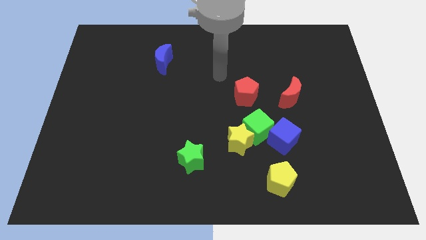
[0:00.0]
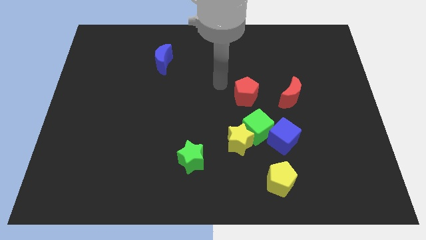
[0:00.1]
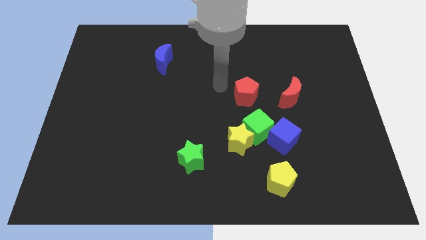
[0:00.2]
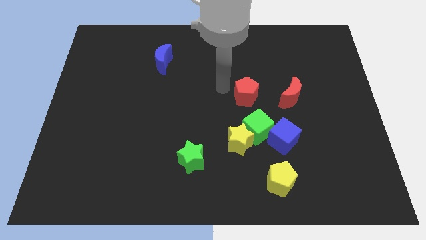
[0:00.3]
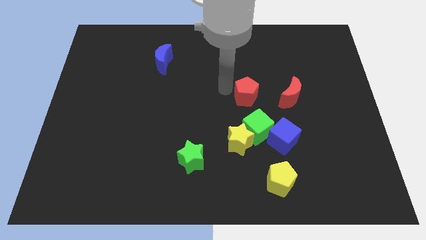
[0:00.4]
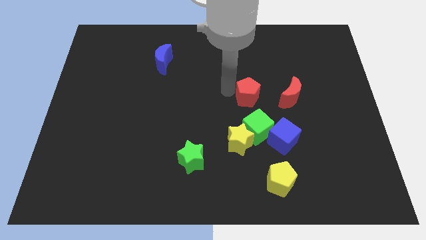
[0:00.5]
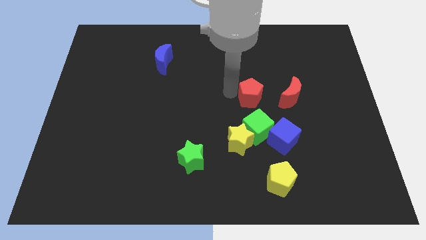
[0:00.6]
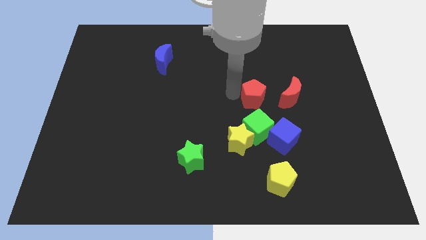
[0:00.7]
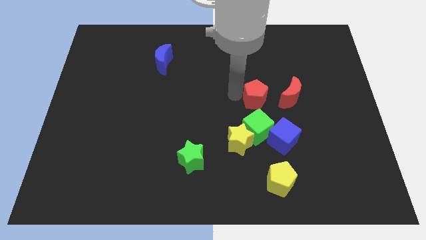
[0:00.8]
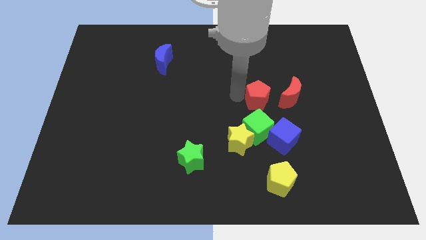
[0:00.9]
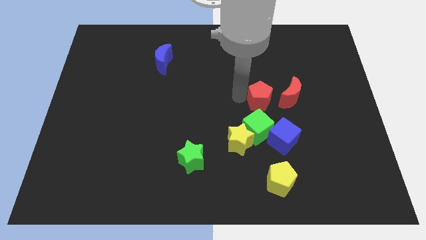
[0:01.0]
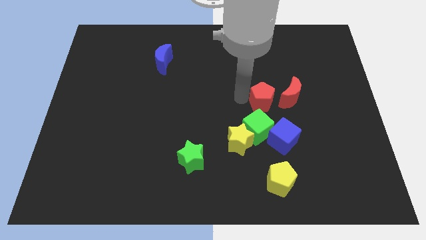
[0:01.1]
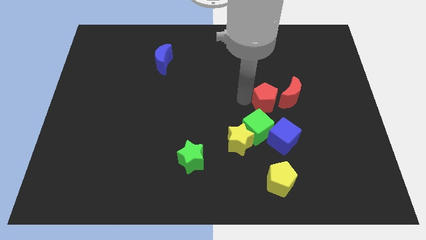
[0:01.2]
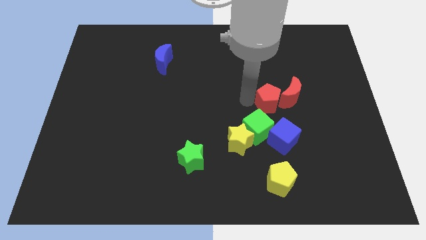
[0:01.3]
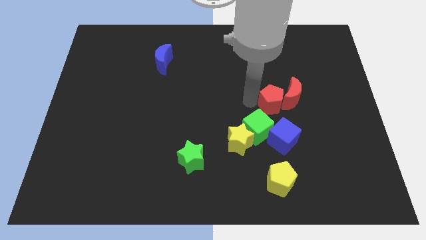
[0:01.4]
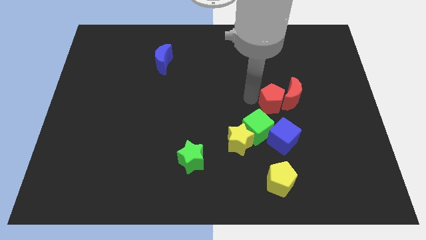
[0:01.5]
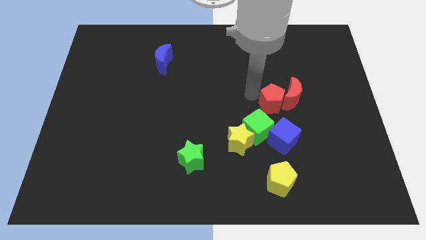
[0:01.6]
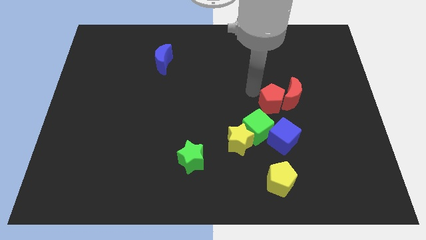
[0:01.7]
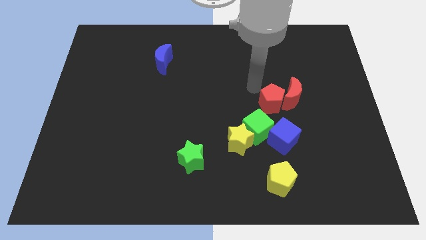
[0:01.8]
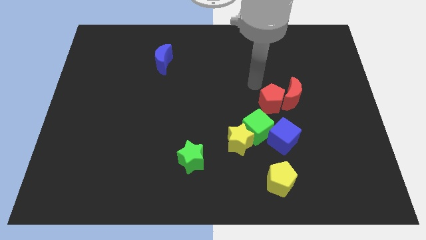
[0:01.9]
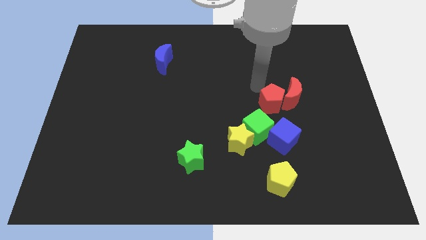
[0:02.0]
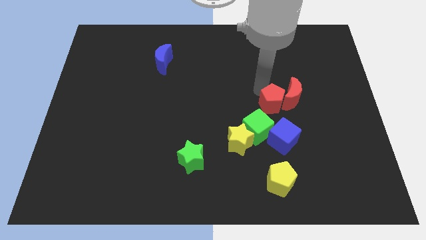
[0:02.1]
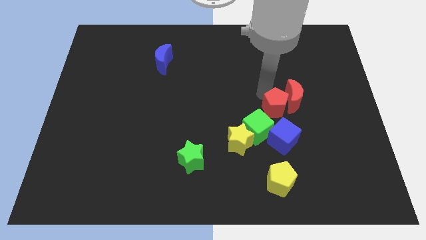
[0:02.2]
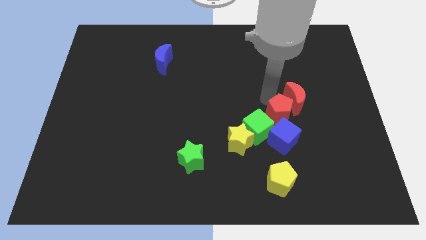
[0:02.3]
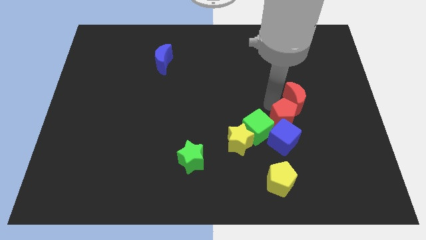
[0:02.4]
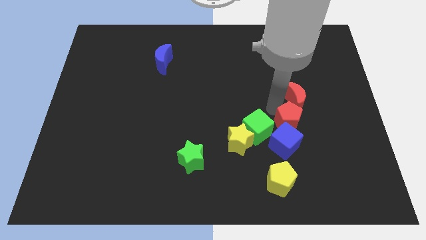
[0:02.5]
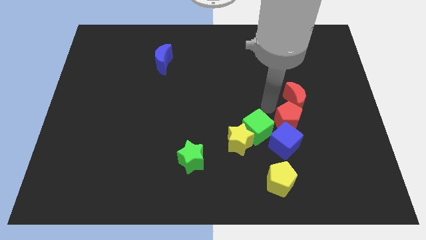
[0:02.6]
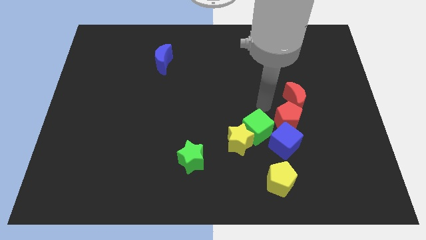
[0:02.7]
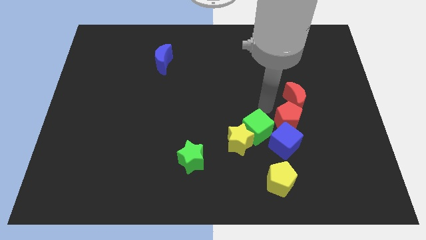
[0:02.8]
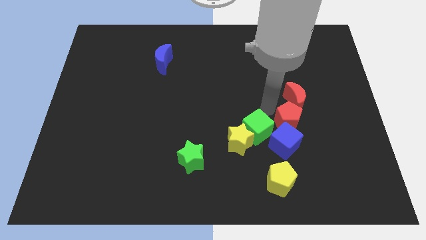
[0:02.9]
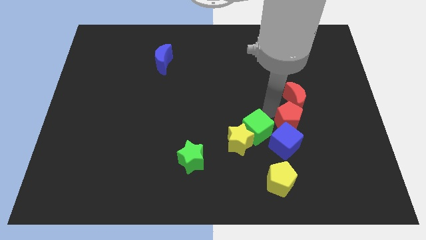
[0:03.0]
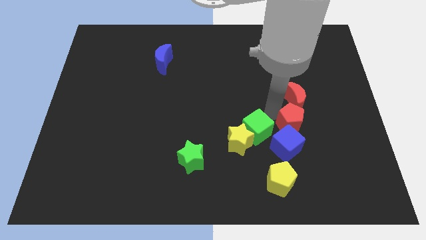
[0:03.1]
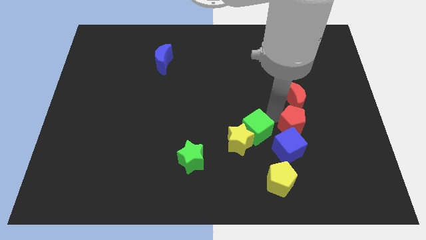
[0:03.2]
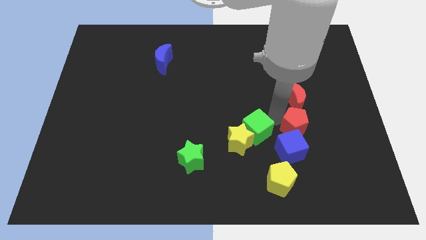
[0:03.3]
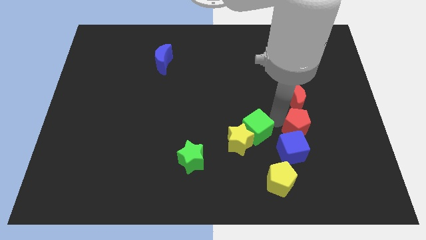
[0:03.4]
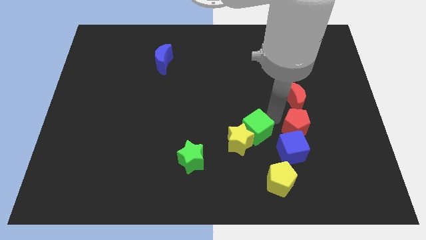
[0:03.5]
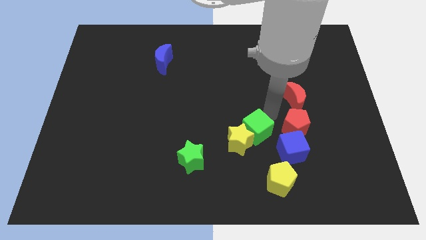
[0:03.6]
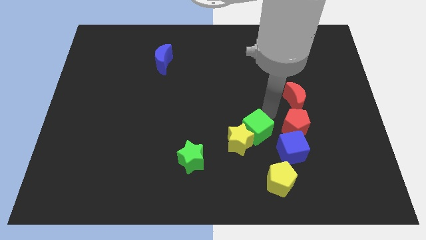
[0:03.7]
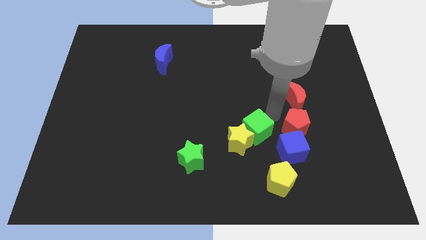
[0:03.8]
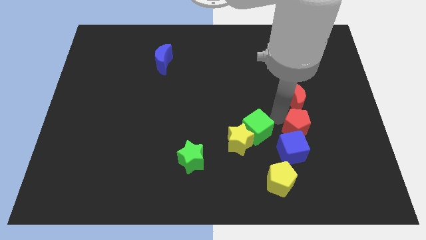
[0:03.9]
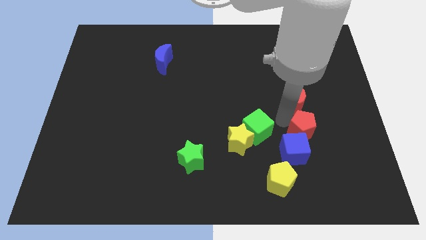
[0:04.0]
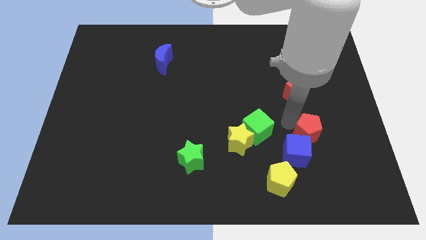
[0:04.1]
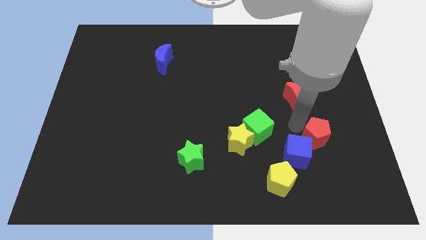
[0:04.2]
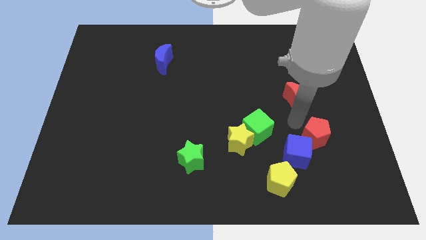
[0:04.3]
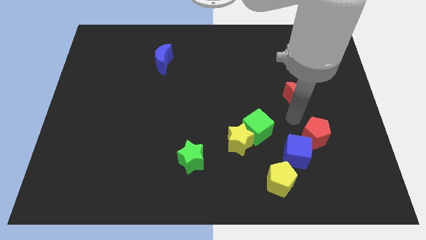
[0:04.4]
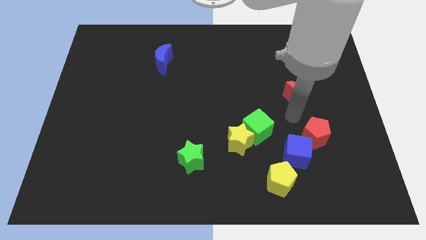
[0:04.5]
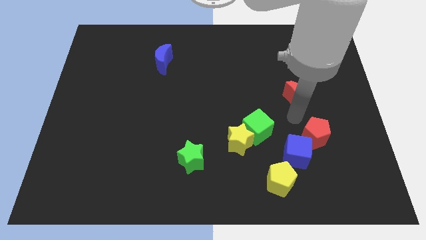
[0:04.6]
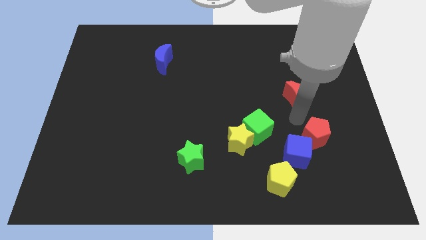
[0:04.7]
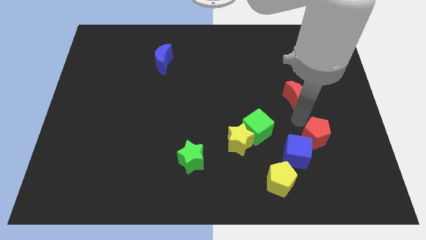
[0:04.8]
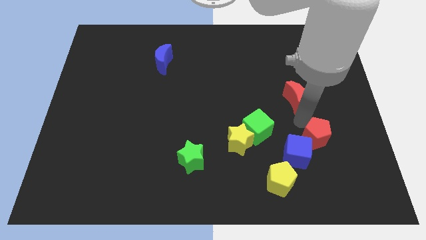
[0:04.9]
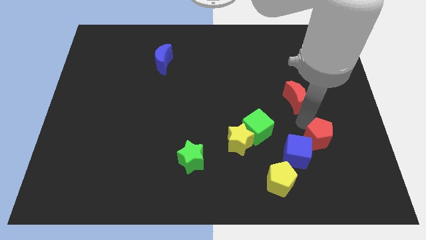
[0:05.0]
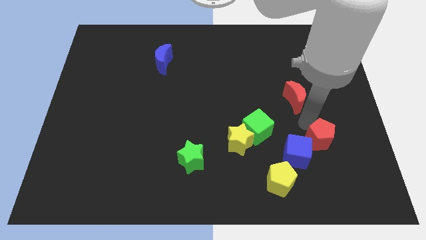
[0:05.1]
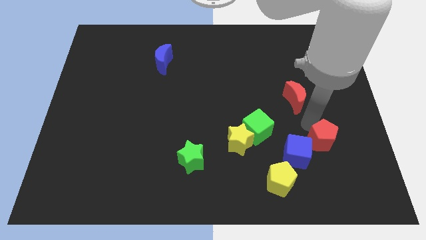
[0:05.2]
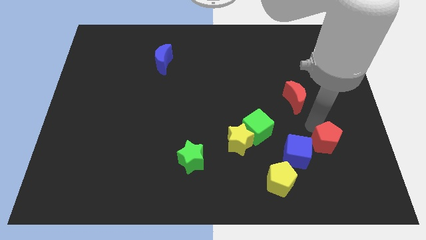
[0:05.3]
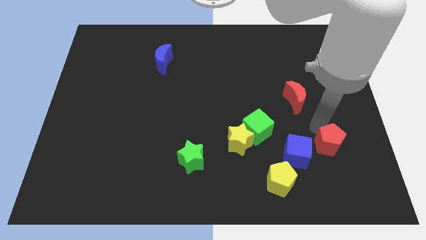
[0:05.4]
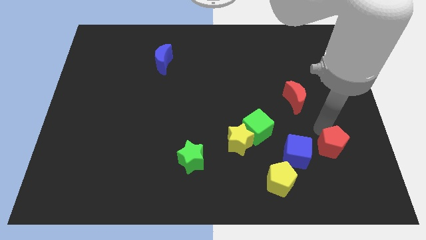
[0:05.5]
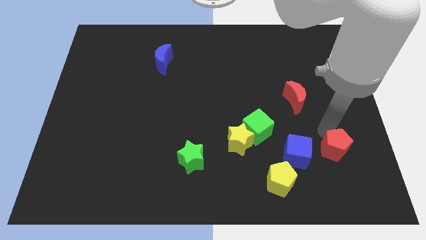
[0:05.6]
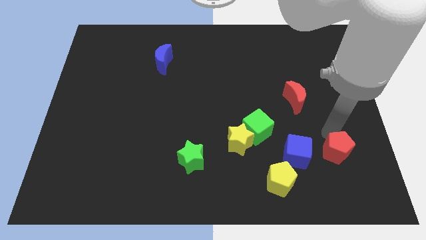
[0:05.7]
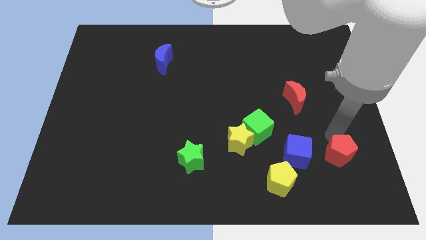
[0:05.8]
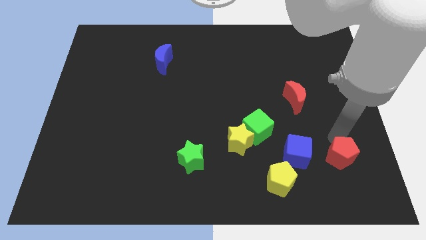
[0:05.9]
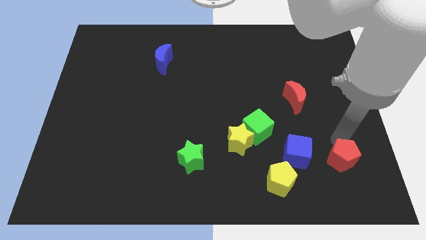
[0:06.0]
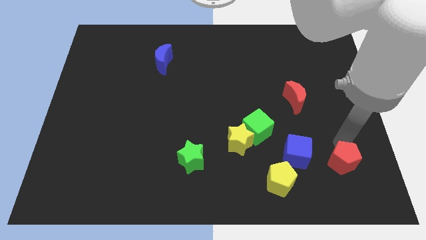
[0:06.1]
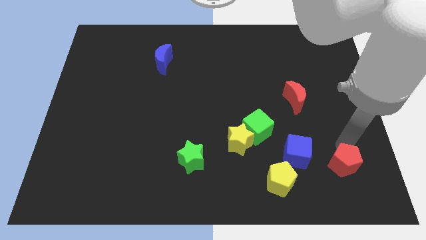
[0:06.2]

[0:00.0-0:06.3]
slide the red pentagon just right of the yellow pentagon

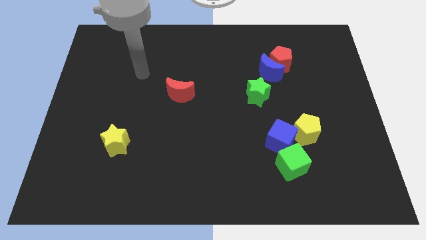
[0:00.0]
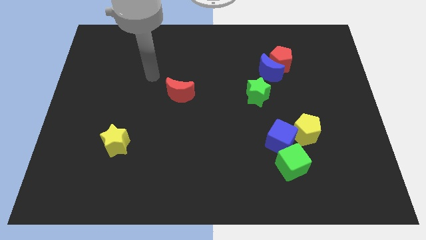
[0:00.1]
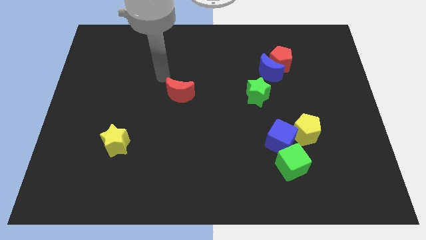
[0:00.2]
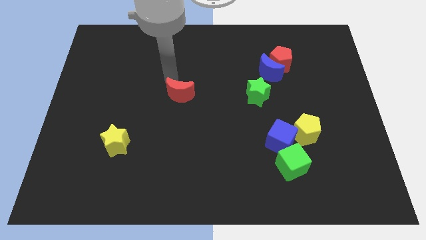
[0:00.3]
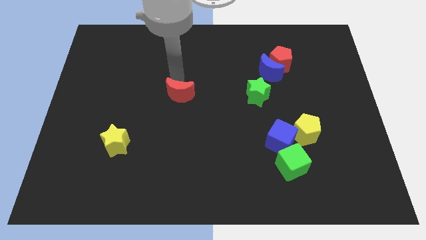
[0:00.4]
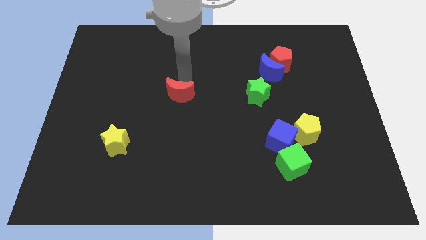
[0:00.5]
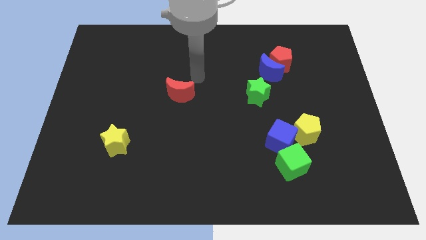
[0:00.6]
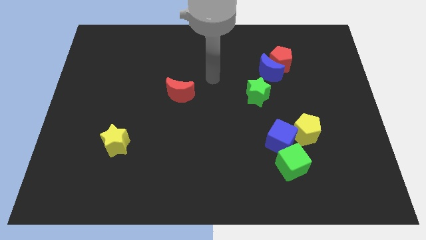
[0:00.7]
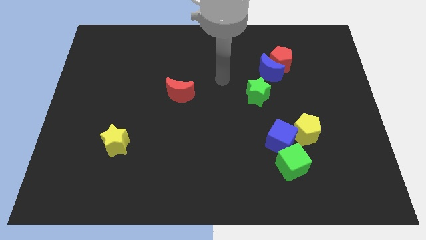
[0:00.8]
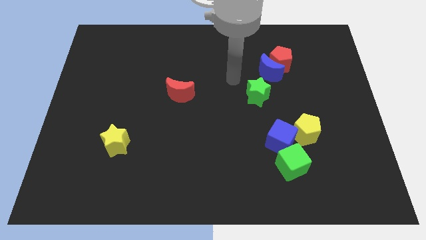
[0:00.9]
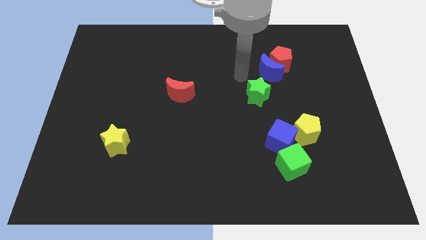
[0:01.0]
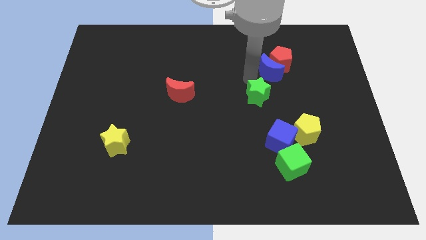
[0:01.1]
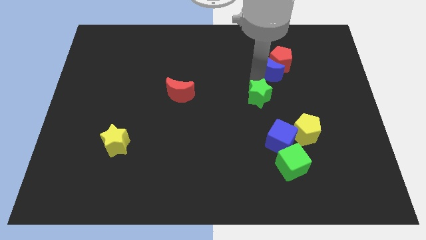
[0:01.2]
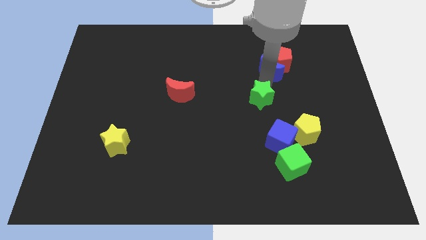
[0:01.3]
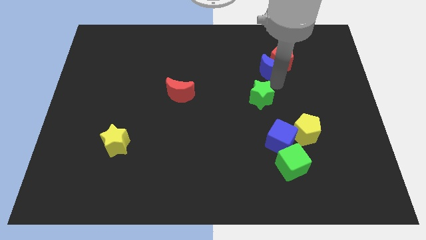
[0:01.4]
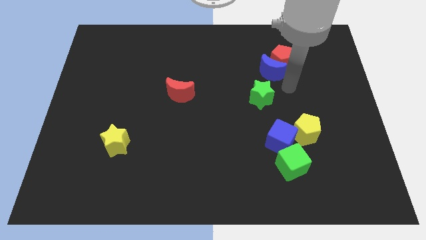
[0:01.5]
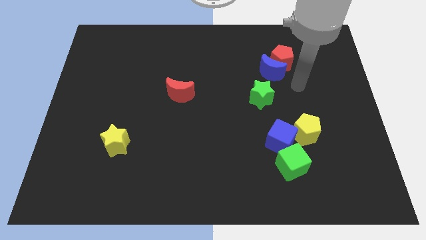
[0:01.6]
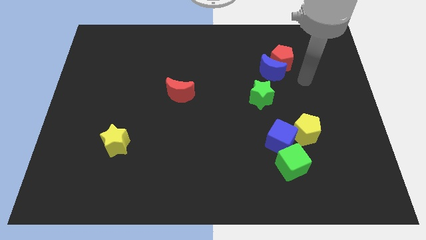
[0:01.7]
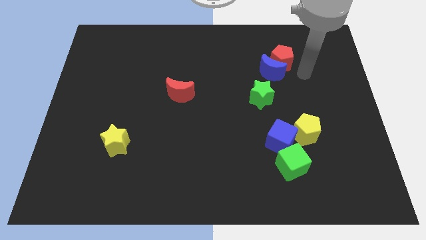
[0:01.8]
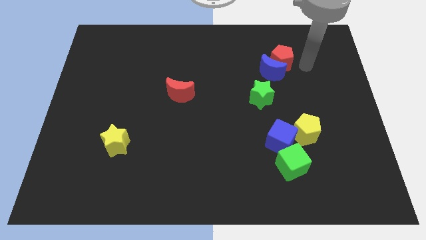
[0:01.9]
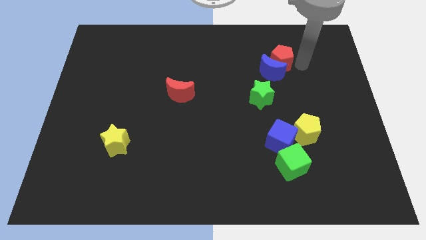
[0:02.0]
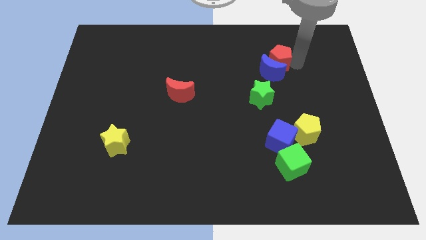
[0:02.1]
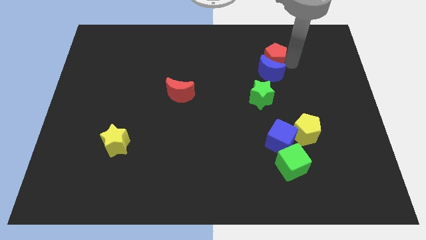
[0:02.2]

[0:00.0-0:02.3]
slide the red pentagon to the top side of the green star
